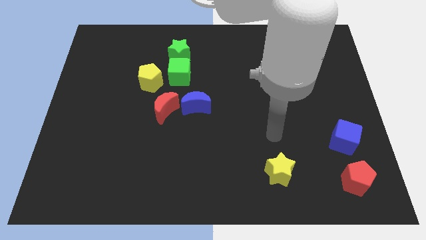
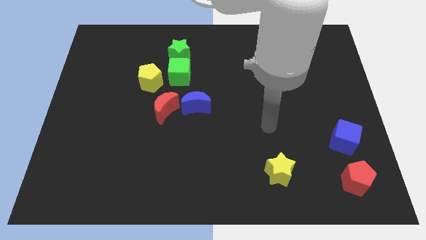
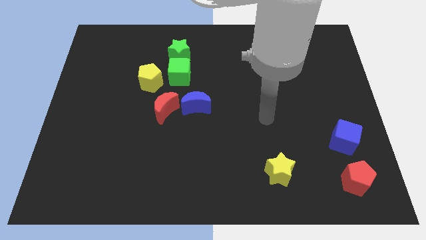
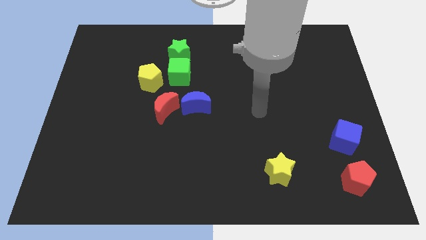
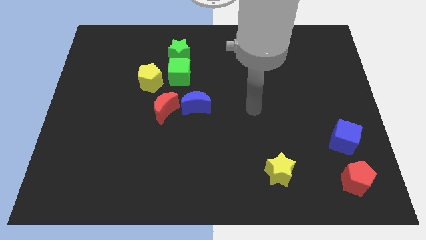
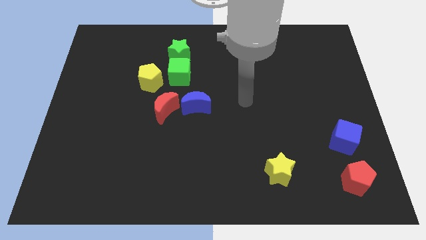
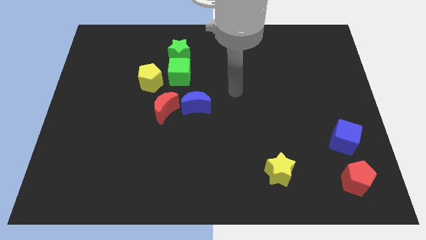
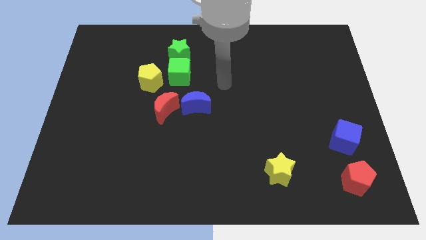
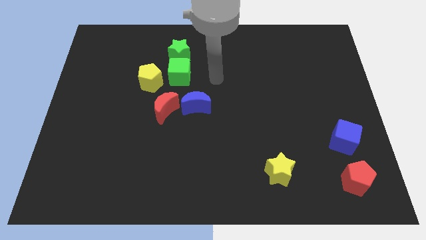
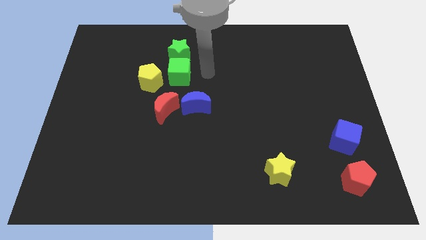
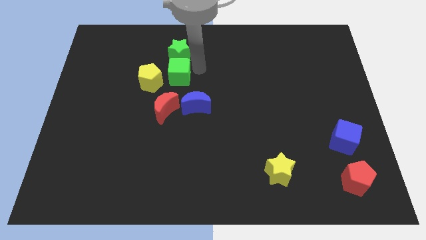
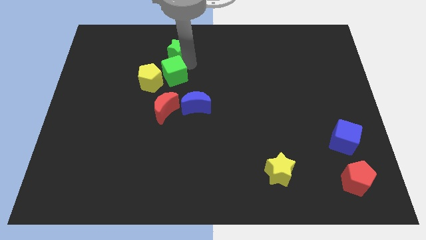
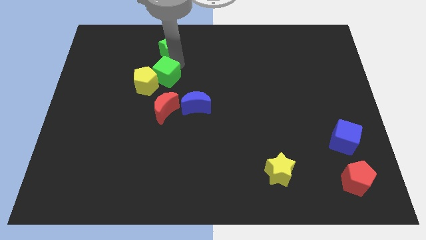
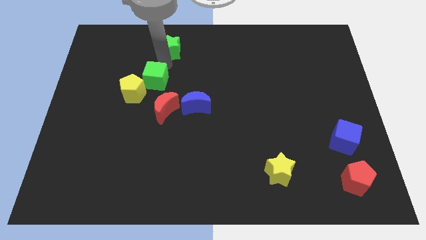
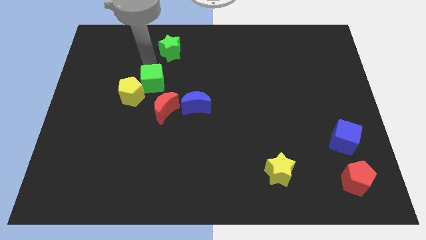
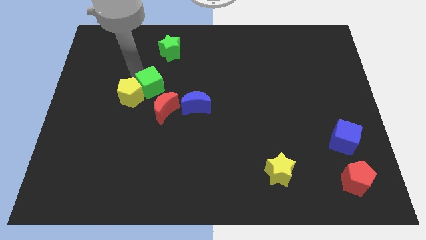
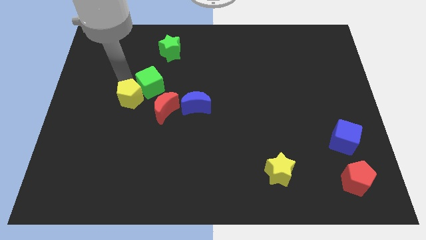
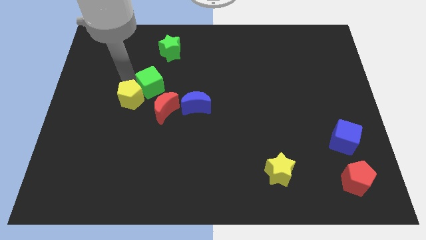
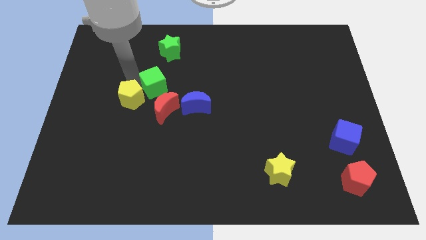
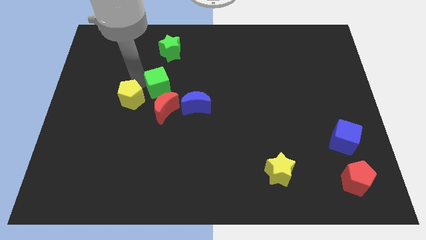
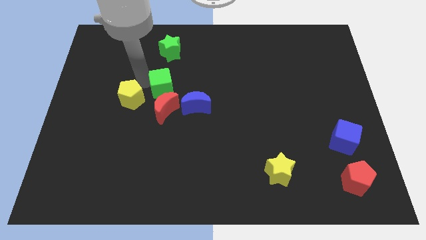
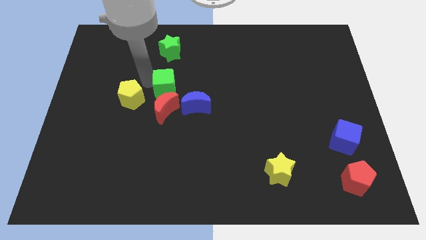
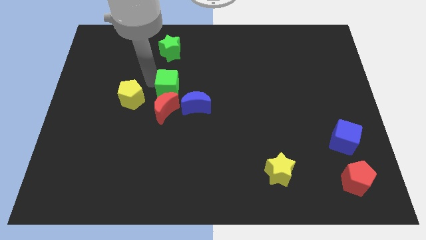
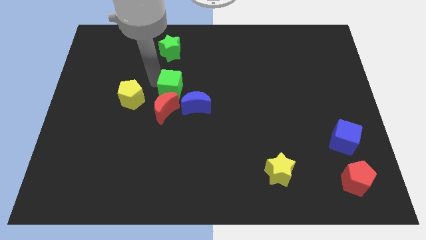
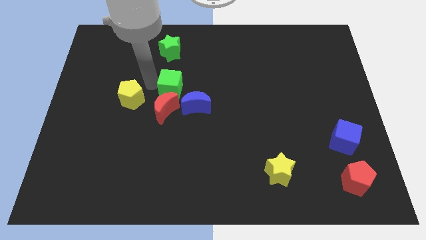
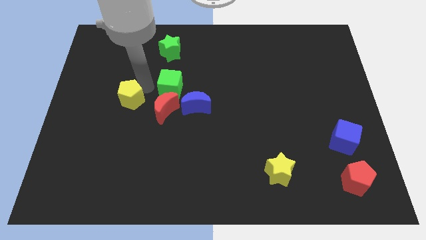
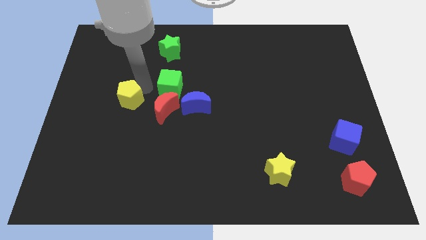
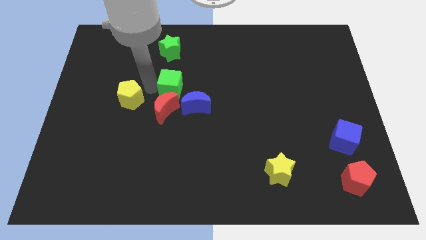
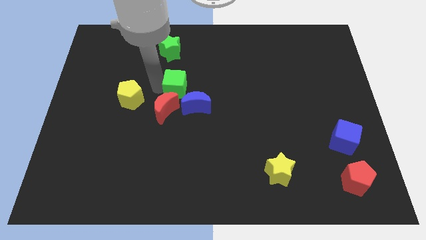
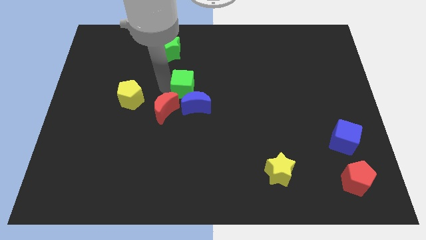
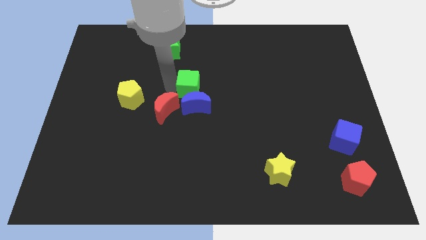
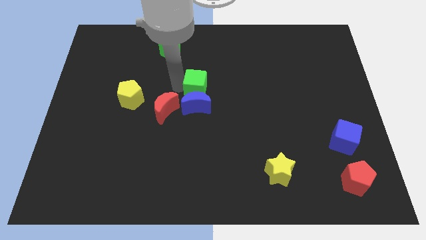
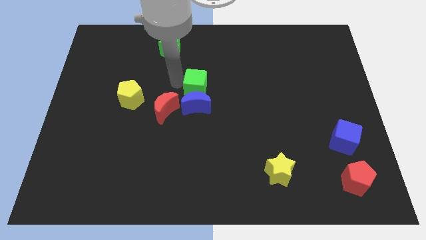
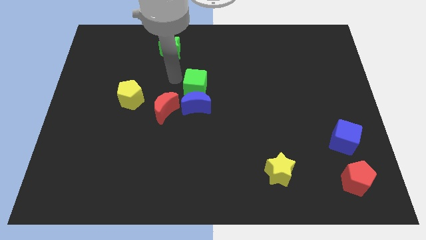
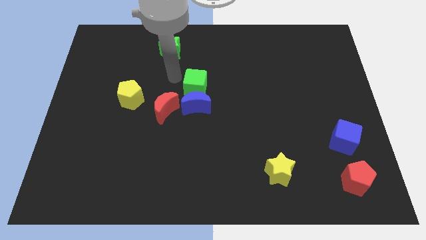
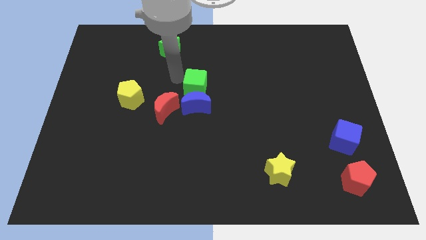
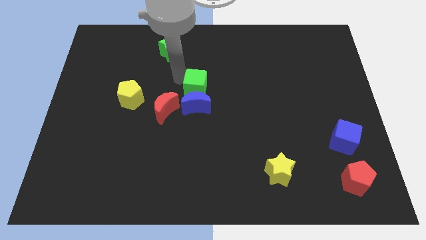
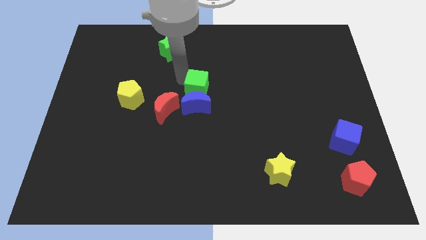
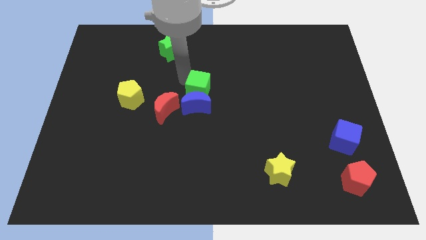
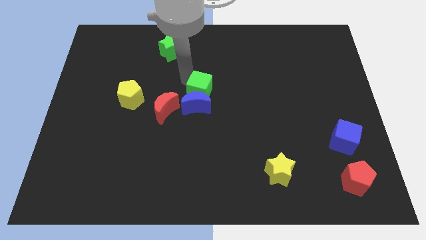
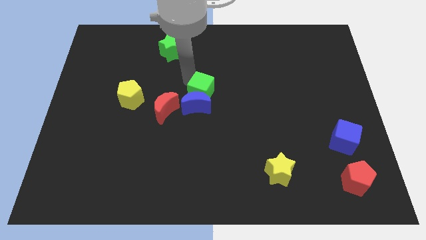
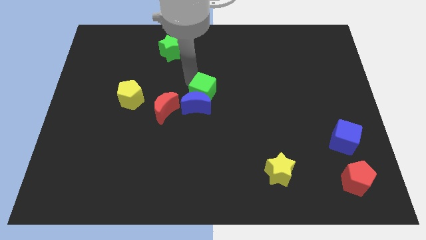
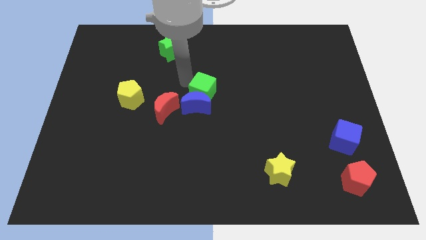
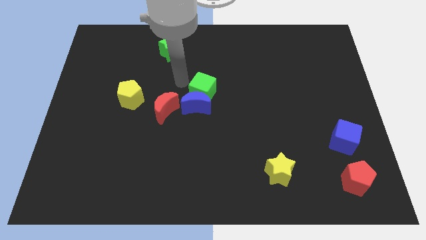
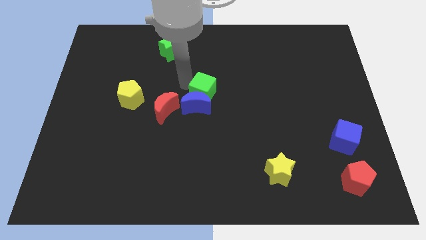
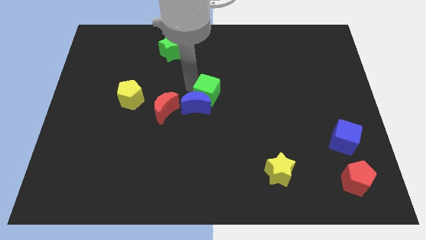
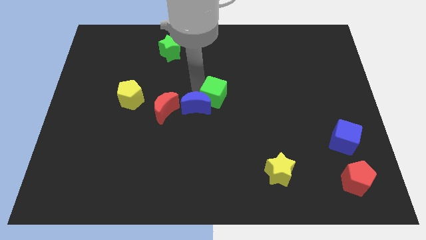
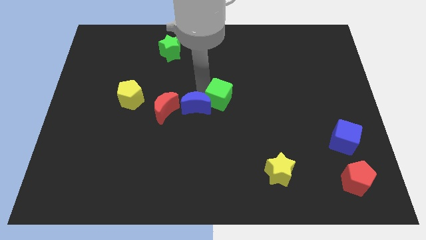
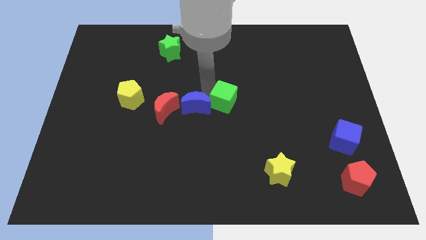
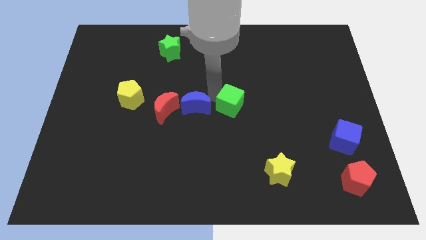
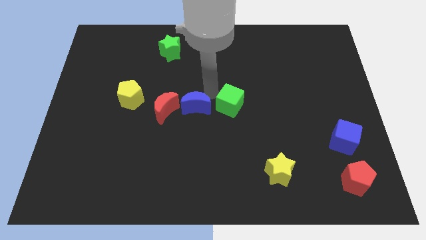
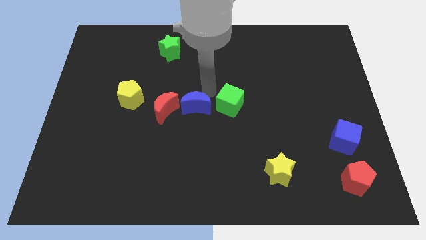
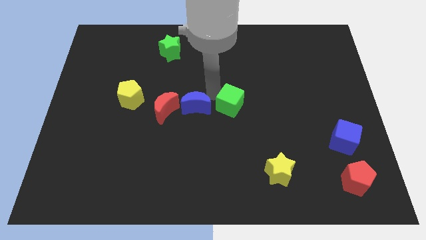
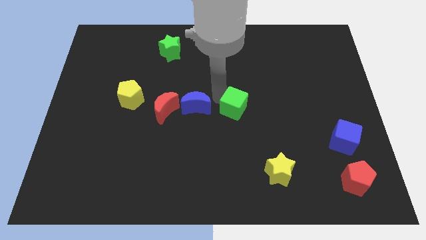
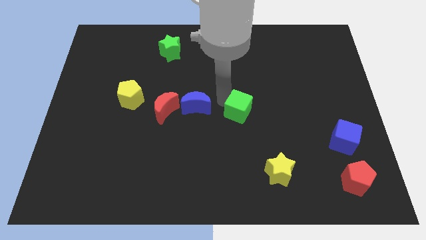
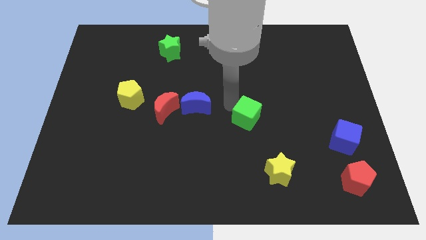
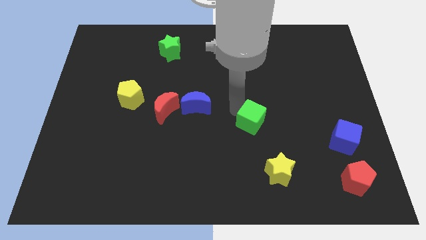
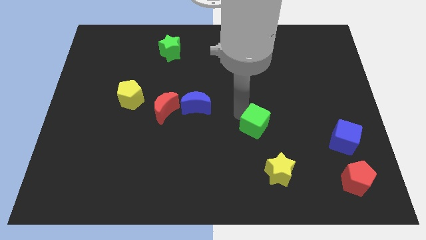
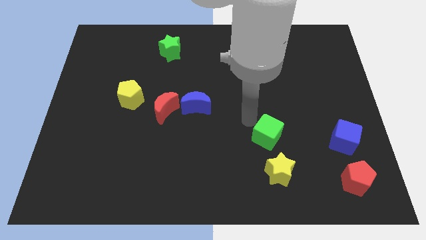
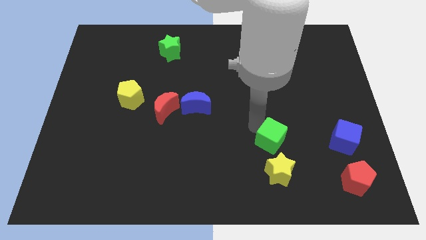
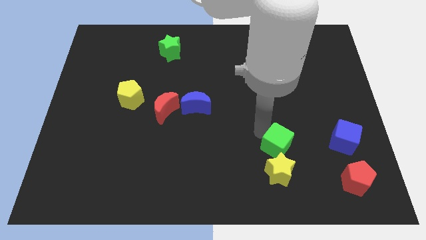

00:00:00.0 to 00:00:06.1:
move the green cube to the top right side of the yellow star
